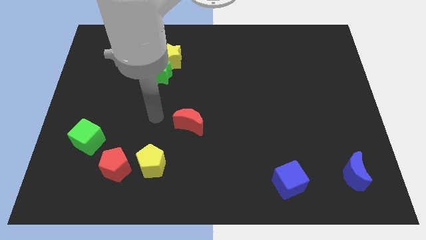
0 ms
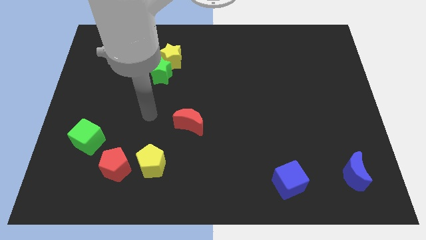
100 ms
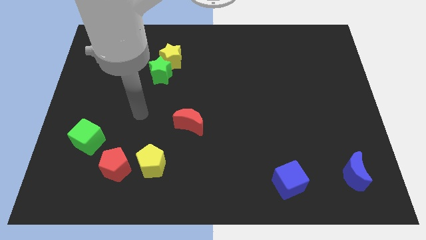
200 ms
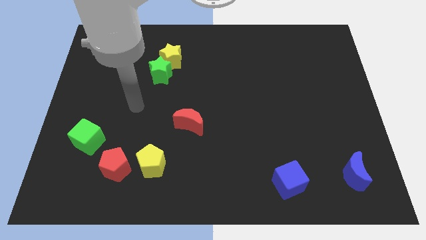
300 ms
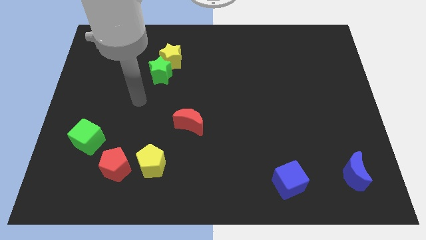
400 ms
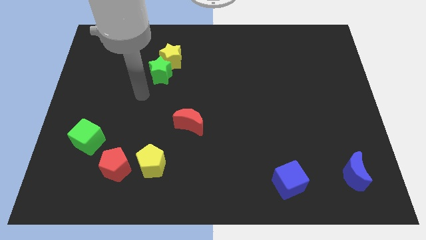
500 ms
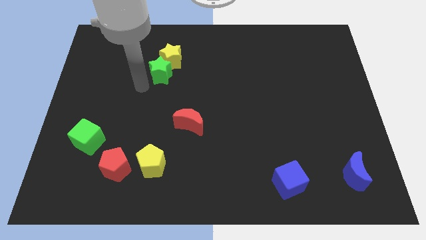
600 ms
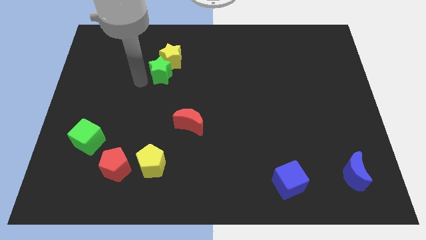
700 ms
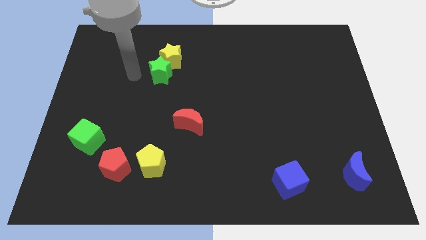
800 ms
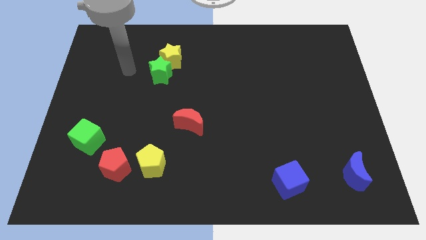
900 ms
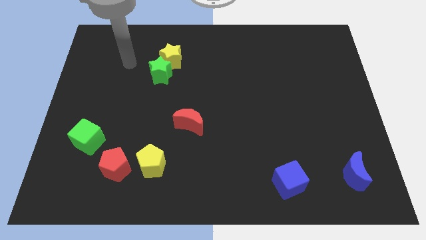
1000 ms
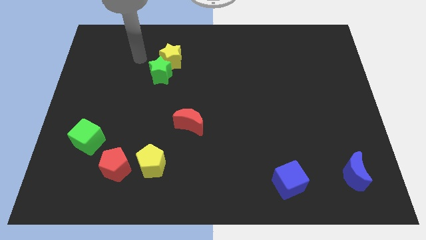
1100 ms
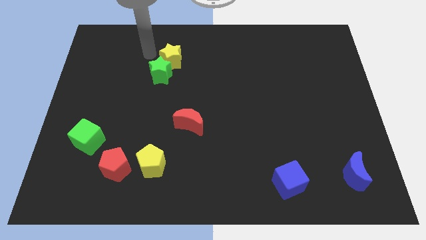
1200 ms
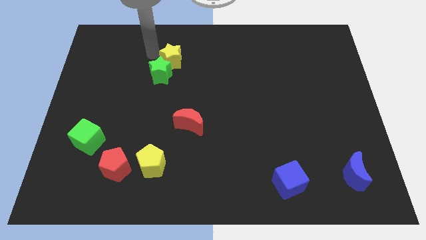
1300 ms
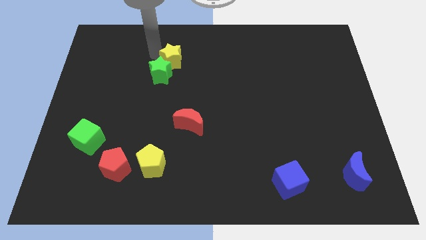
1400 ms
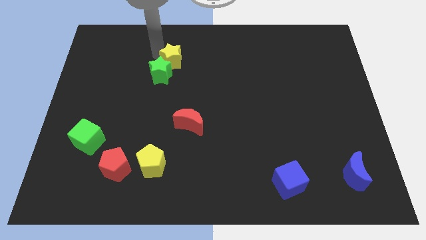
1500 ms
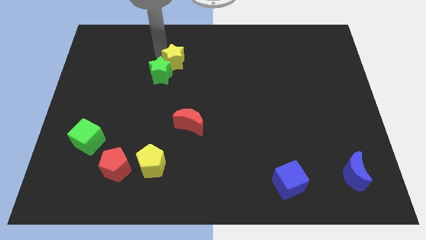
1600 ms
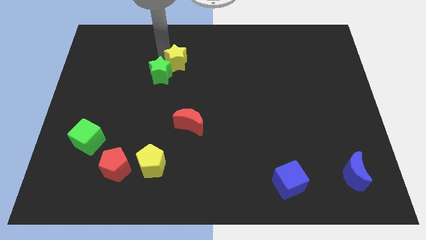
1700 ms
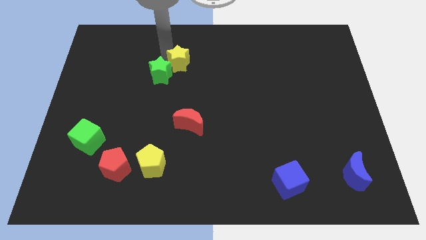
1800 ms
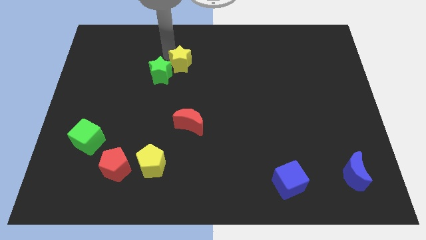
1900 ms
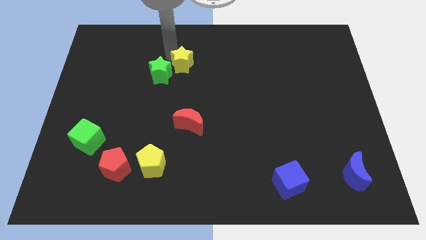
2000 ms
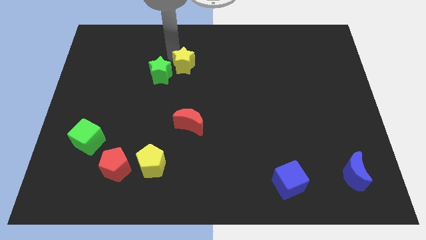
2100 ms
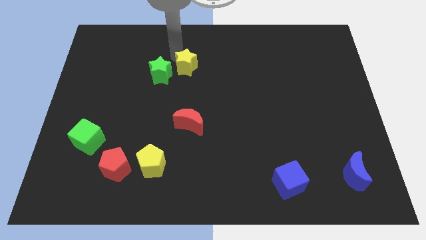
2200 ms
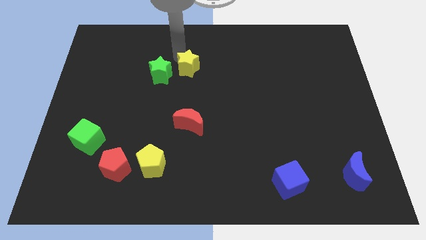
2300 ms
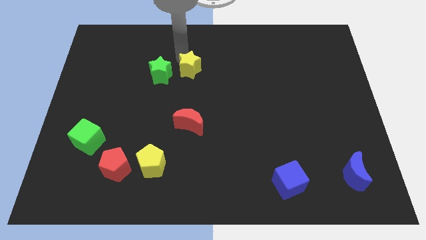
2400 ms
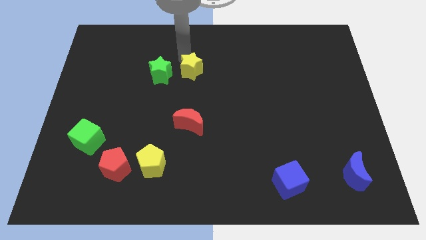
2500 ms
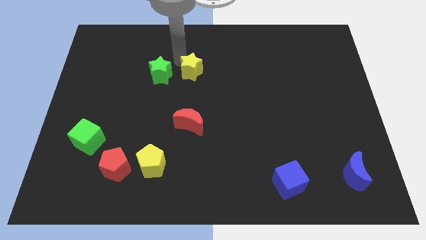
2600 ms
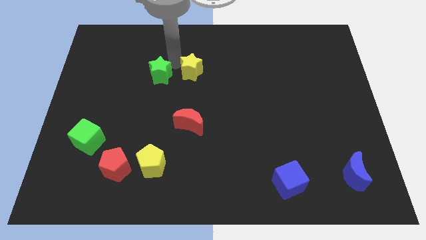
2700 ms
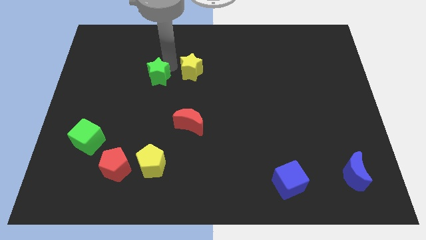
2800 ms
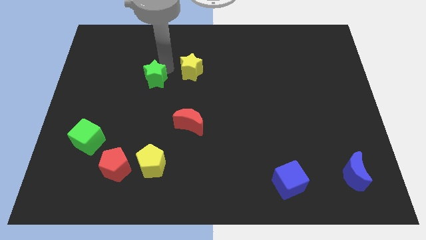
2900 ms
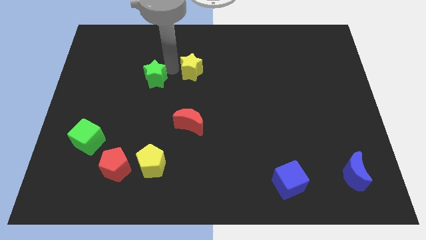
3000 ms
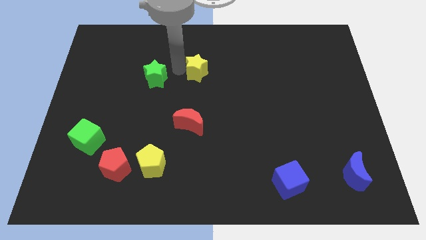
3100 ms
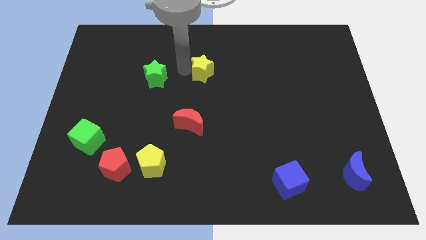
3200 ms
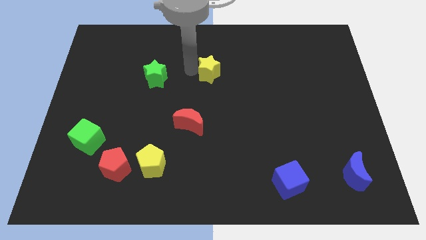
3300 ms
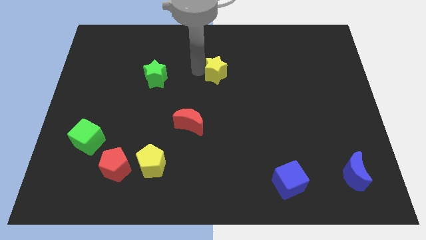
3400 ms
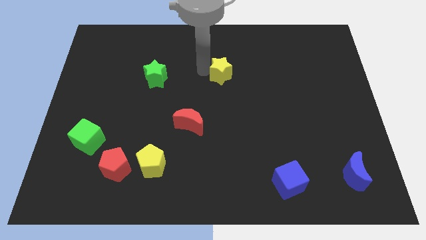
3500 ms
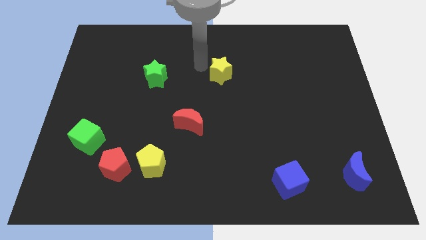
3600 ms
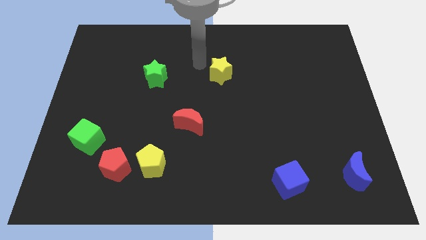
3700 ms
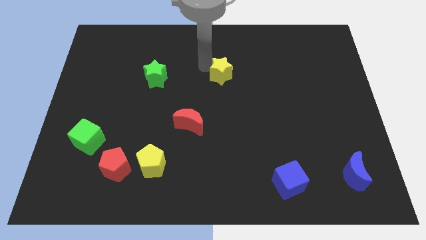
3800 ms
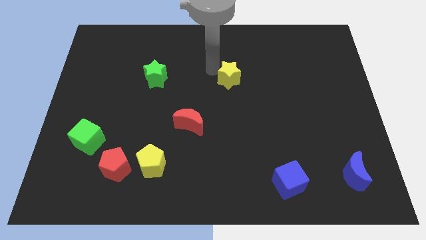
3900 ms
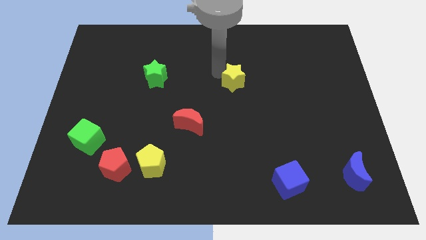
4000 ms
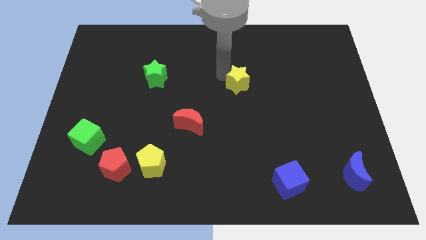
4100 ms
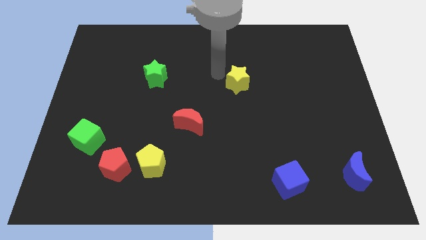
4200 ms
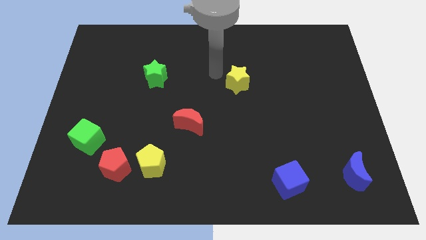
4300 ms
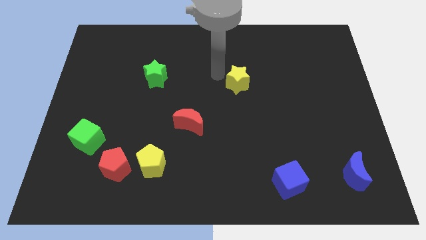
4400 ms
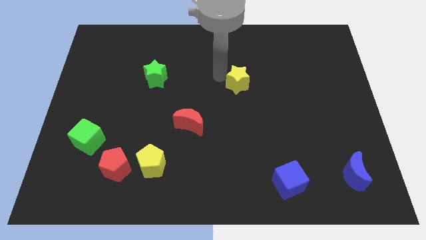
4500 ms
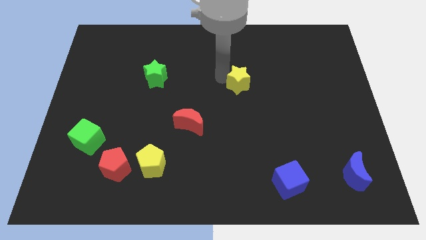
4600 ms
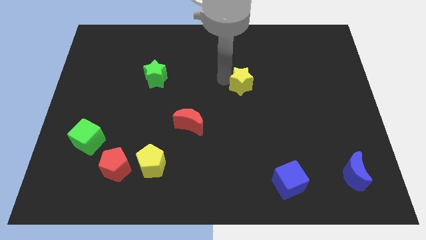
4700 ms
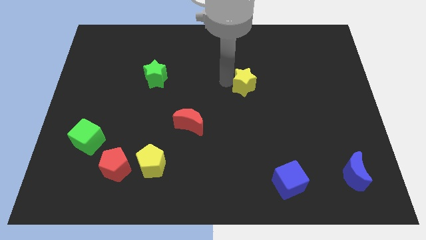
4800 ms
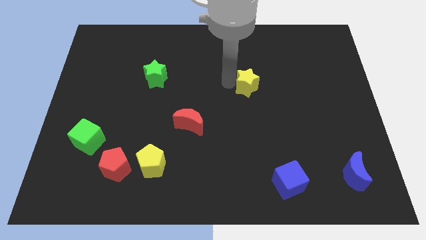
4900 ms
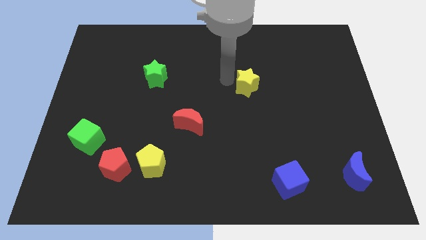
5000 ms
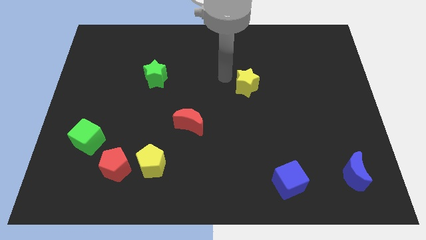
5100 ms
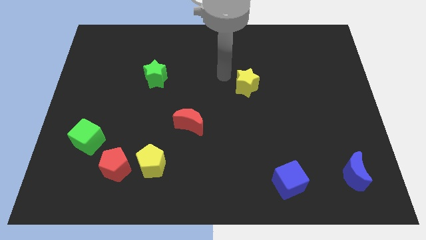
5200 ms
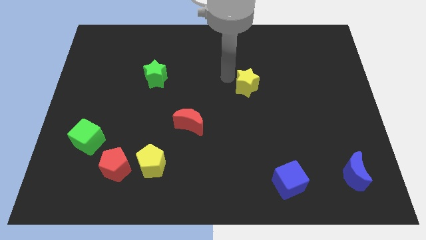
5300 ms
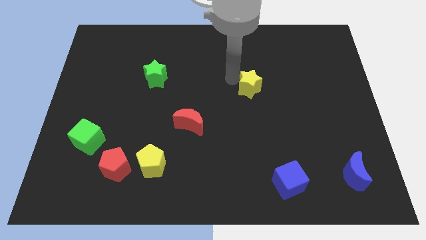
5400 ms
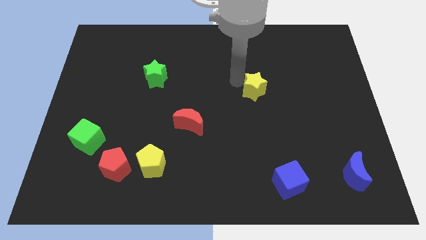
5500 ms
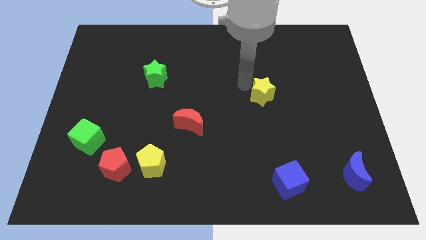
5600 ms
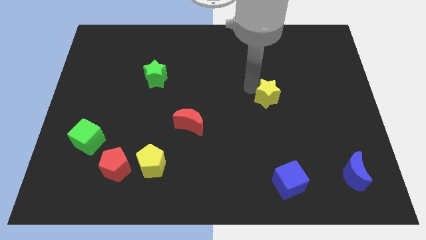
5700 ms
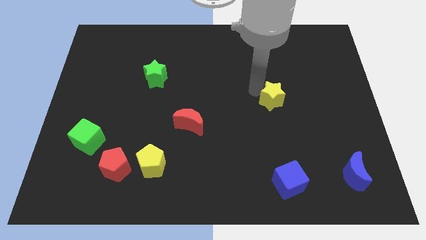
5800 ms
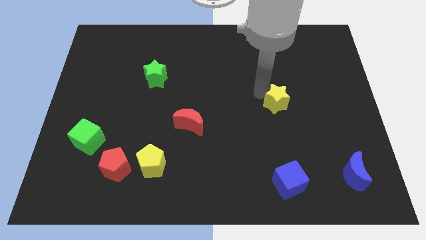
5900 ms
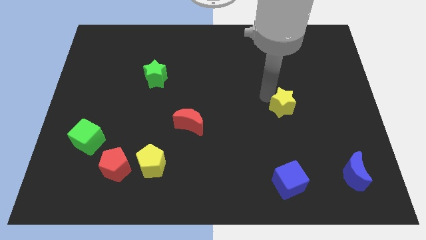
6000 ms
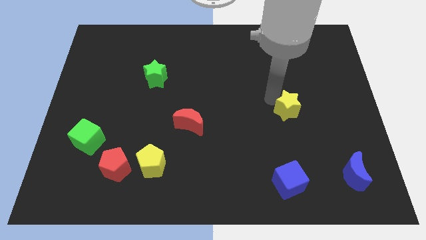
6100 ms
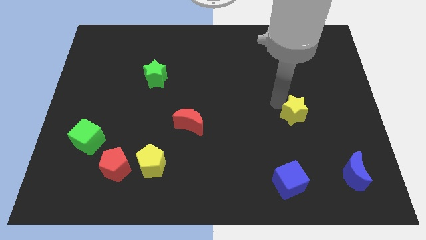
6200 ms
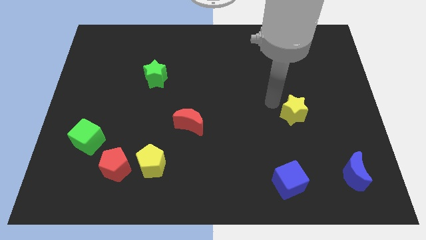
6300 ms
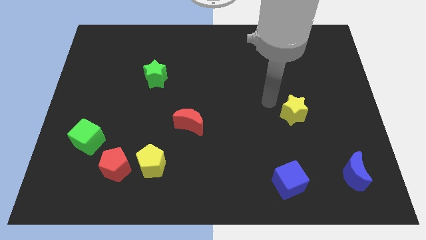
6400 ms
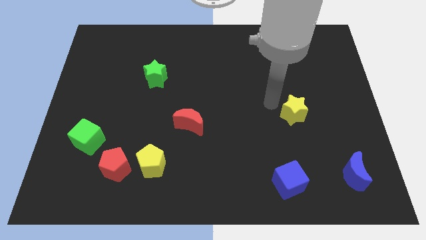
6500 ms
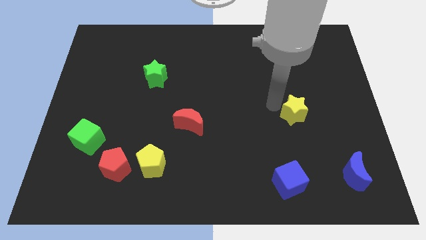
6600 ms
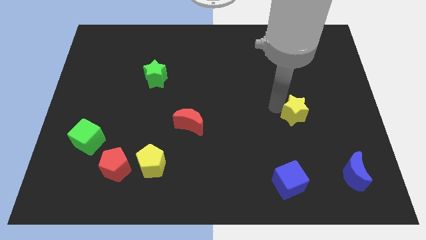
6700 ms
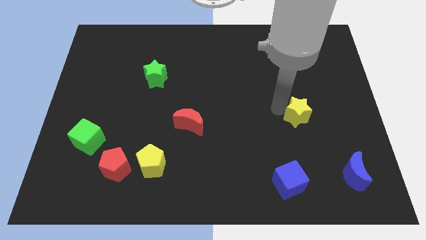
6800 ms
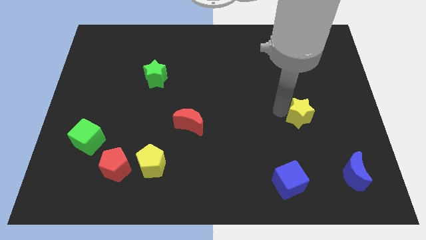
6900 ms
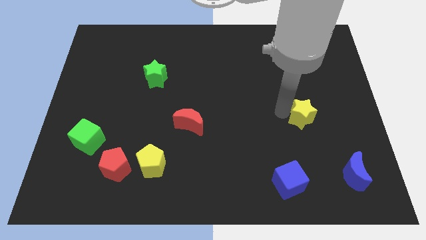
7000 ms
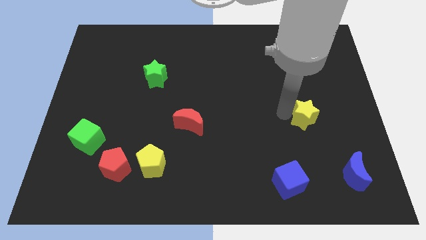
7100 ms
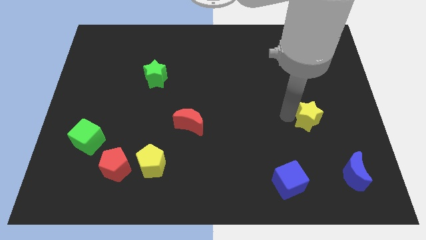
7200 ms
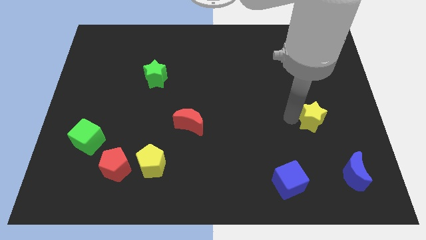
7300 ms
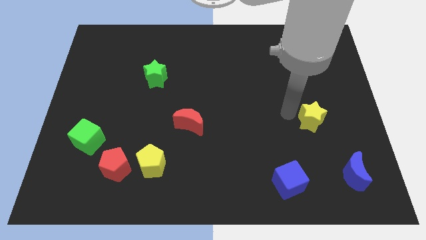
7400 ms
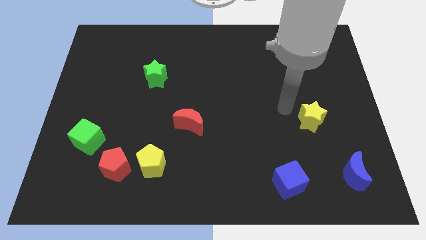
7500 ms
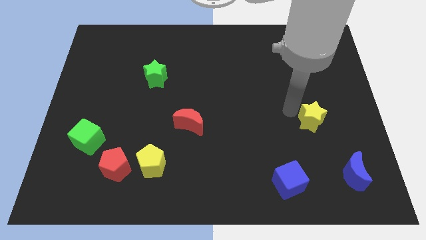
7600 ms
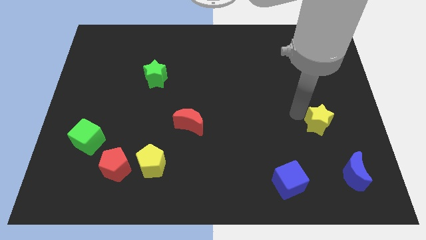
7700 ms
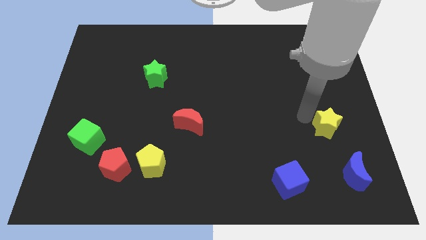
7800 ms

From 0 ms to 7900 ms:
put the yellow star above the blue moon
